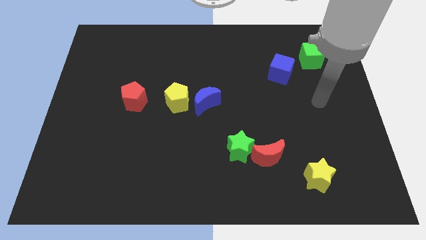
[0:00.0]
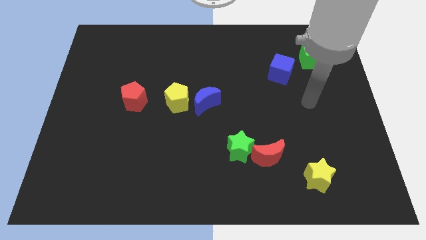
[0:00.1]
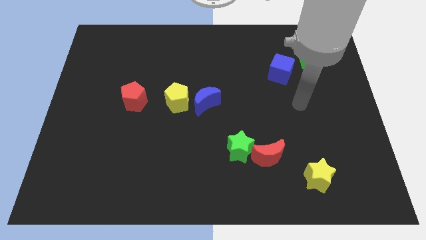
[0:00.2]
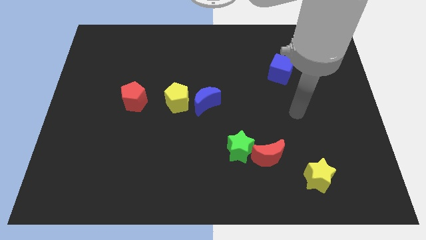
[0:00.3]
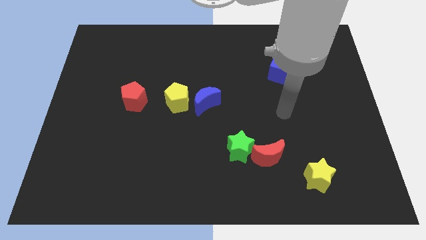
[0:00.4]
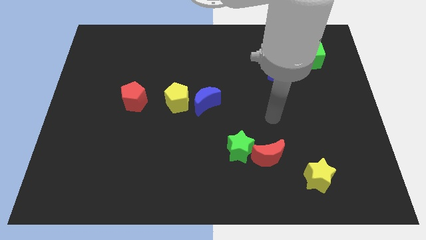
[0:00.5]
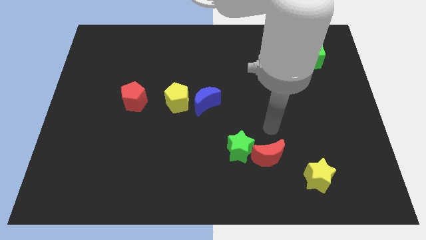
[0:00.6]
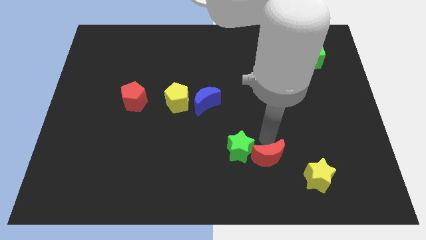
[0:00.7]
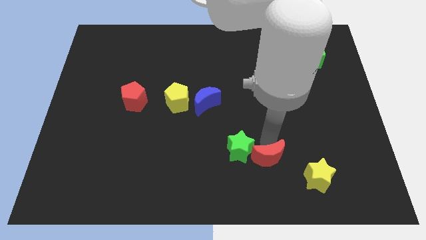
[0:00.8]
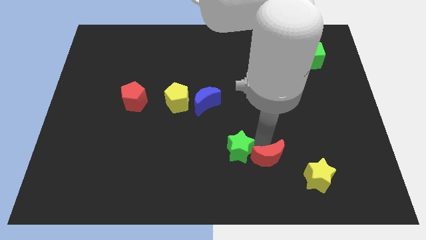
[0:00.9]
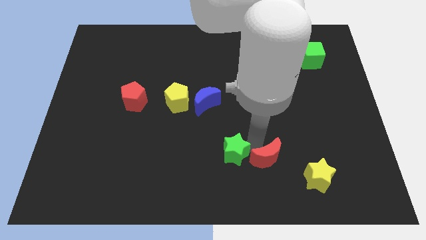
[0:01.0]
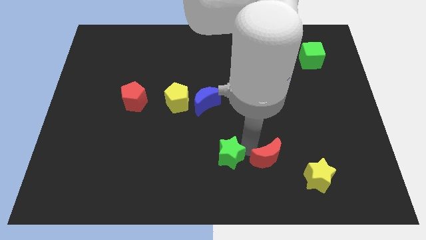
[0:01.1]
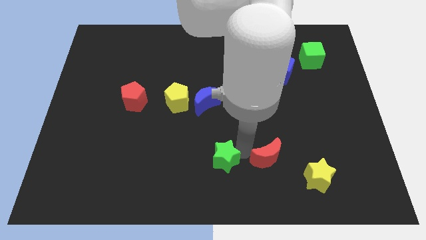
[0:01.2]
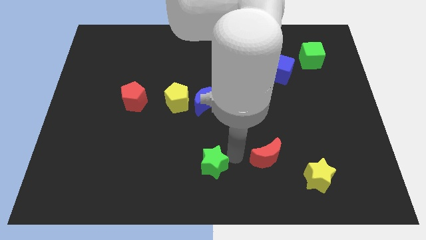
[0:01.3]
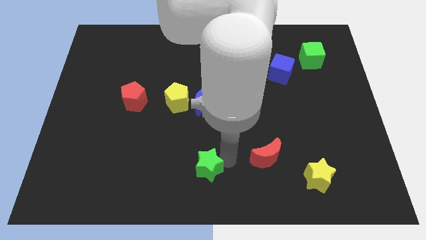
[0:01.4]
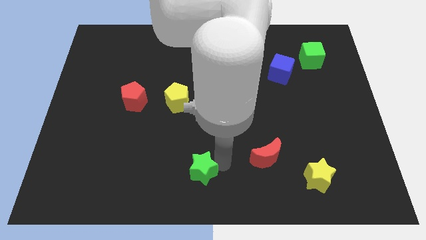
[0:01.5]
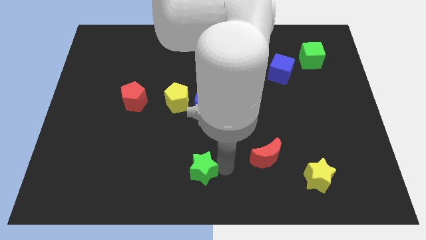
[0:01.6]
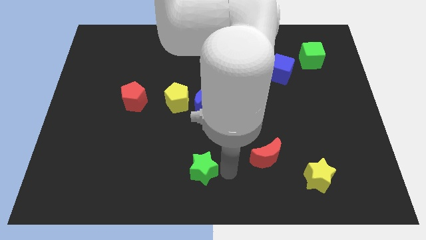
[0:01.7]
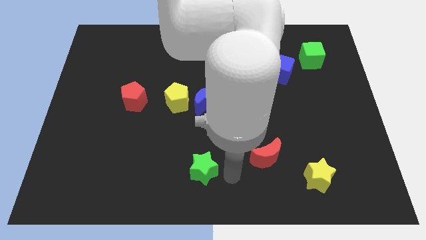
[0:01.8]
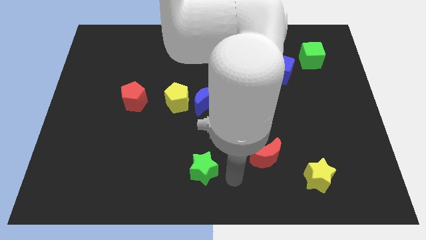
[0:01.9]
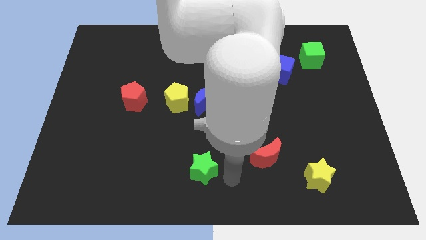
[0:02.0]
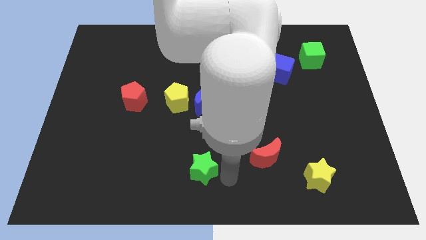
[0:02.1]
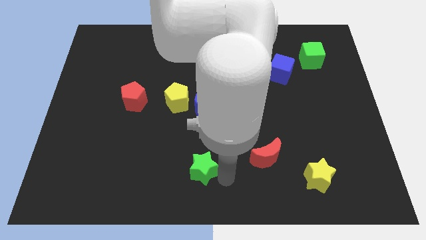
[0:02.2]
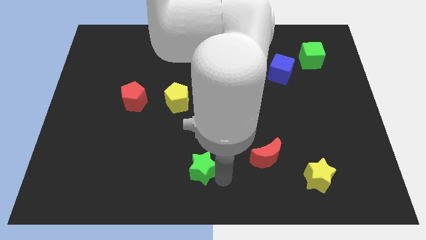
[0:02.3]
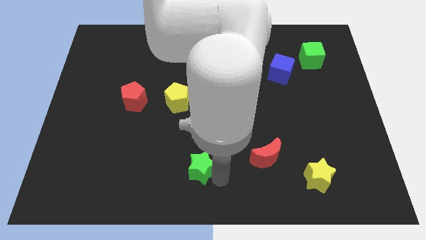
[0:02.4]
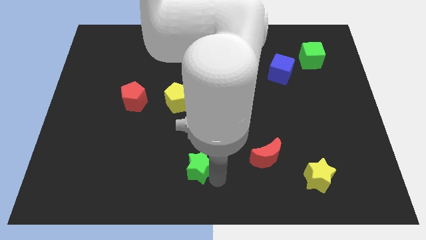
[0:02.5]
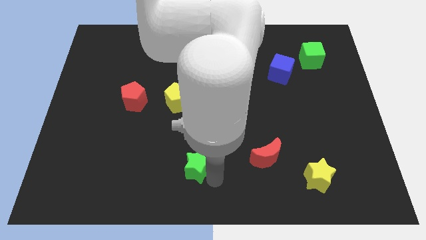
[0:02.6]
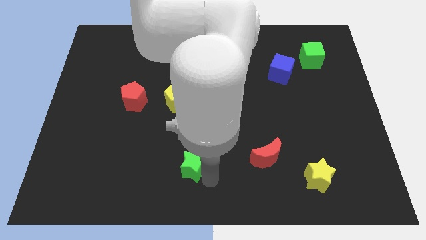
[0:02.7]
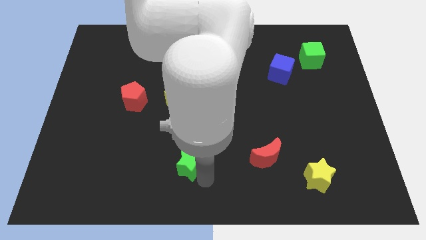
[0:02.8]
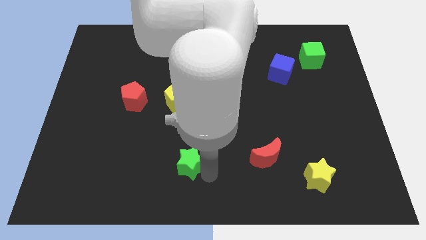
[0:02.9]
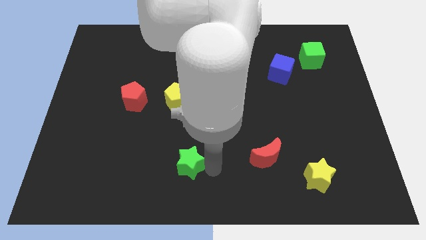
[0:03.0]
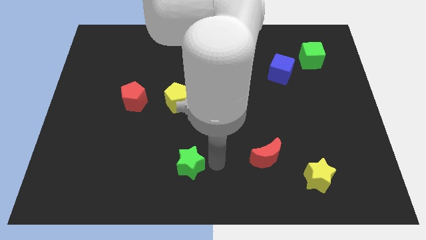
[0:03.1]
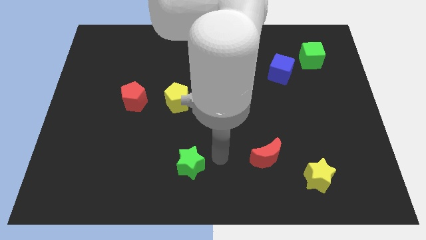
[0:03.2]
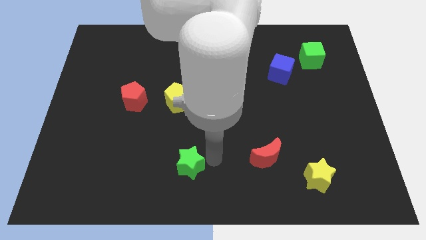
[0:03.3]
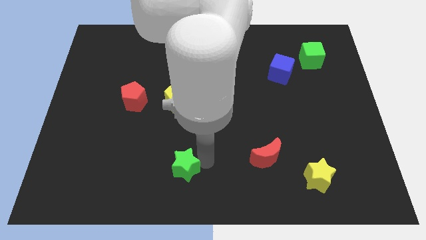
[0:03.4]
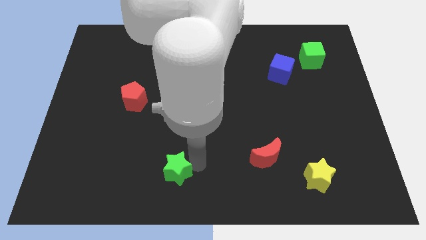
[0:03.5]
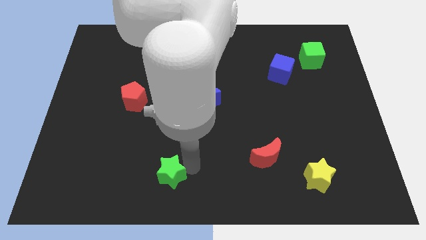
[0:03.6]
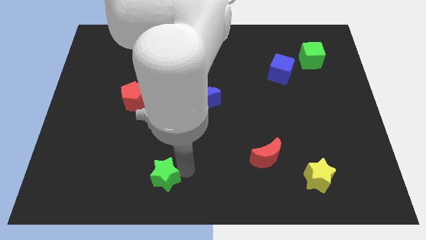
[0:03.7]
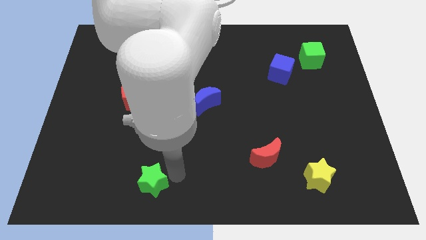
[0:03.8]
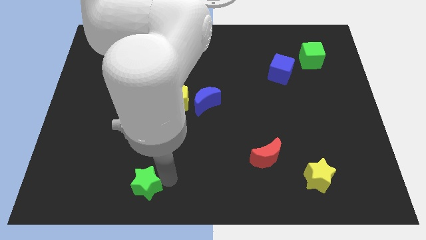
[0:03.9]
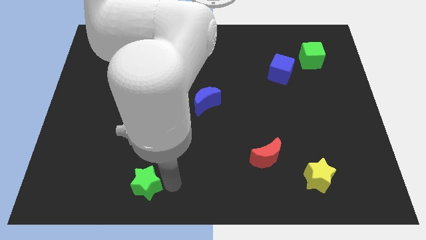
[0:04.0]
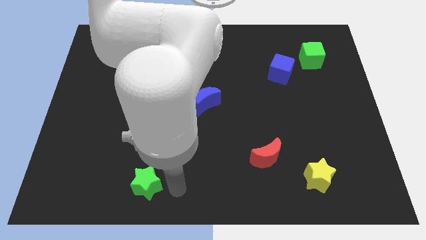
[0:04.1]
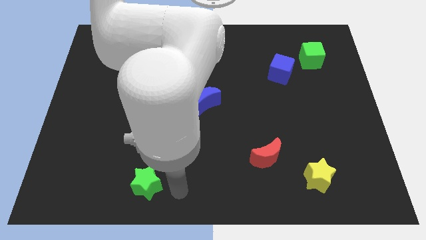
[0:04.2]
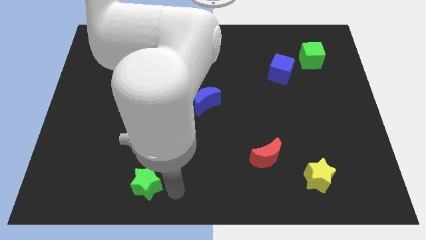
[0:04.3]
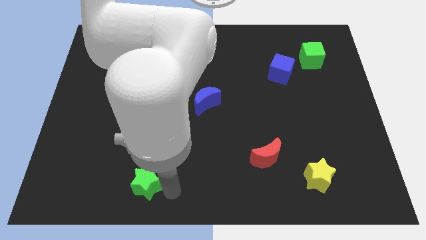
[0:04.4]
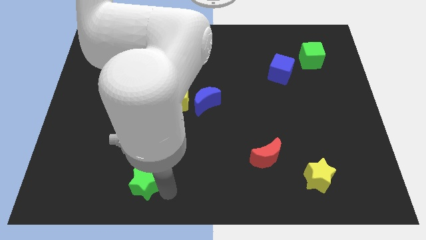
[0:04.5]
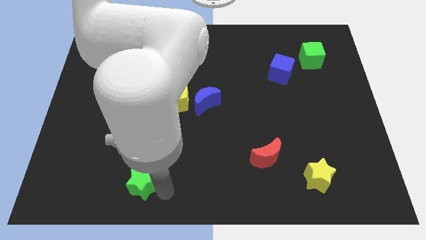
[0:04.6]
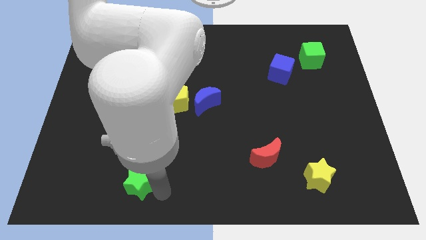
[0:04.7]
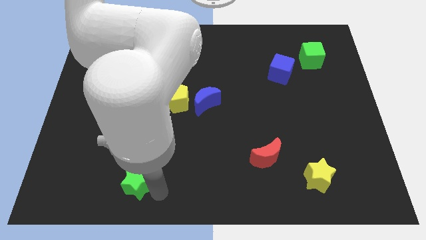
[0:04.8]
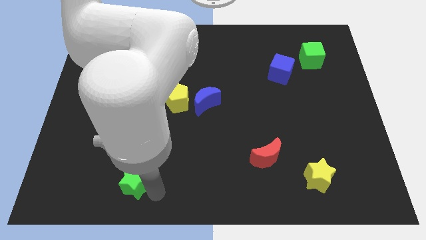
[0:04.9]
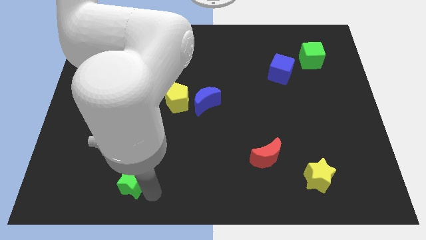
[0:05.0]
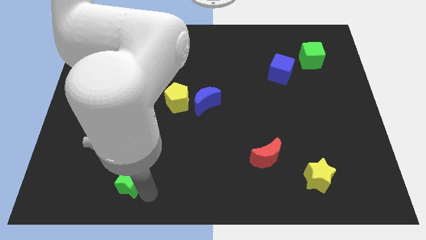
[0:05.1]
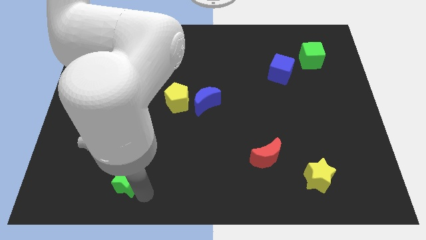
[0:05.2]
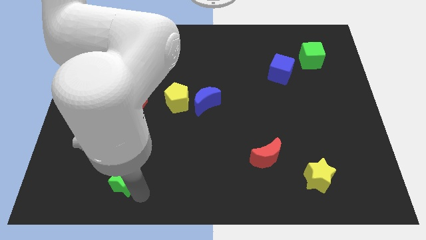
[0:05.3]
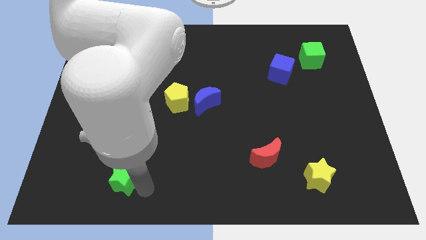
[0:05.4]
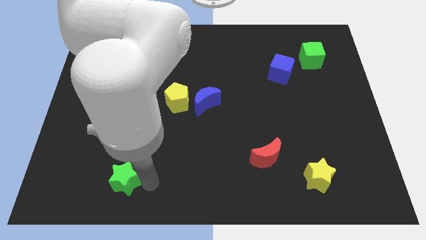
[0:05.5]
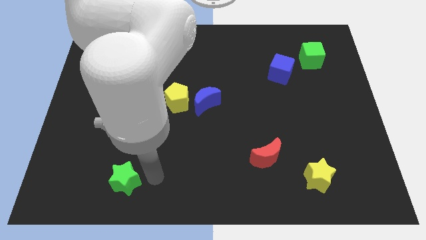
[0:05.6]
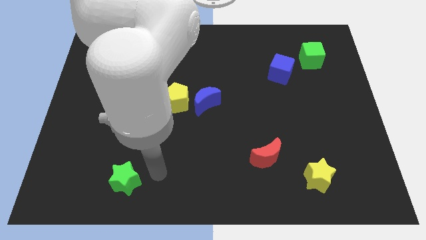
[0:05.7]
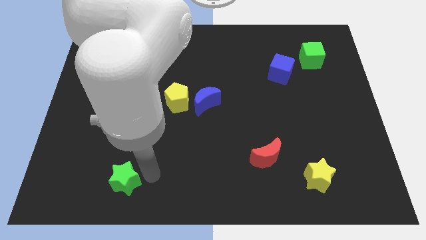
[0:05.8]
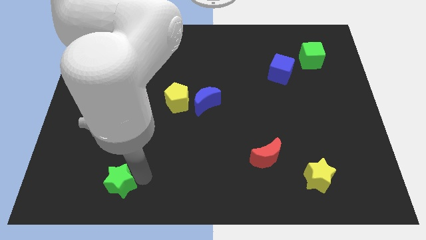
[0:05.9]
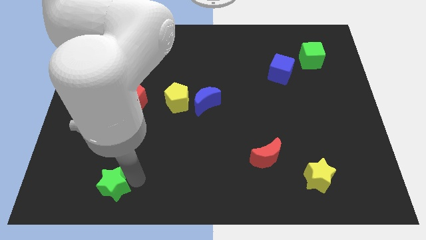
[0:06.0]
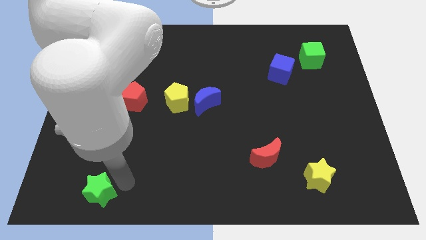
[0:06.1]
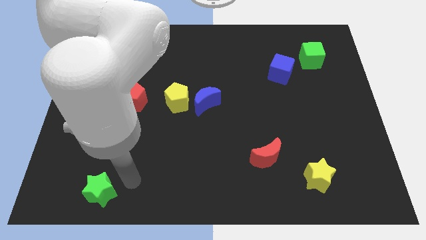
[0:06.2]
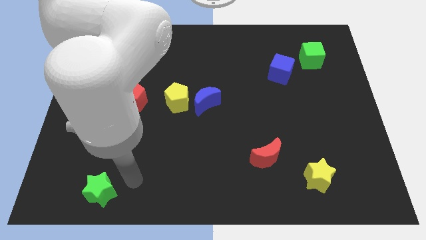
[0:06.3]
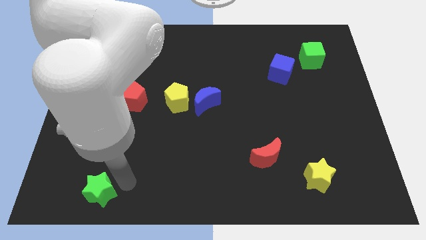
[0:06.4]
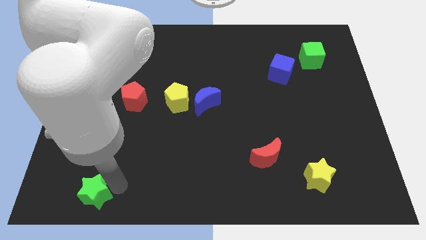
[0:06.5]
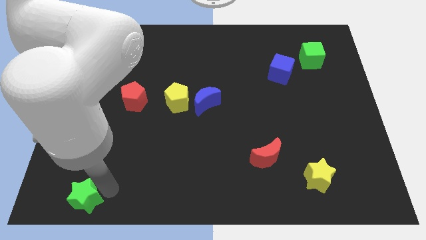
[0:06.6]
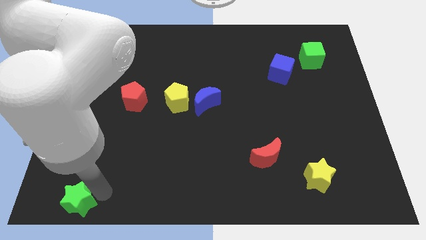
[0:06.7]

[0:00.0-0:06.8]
push the green star to the bottom left corner
